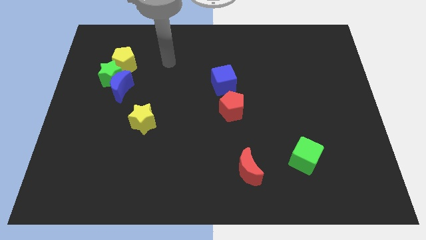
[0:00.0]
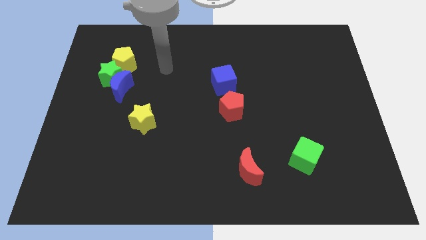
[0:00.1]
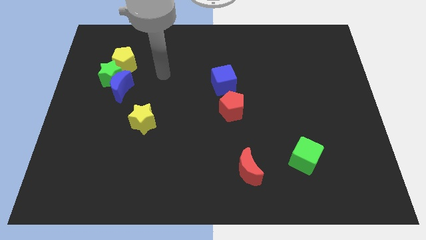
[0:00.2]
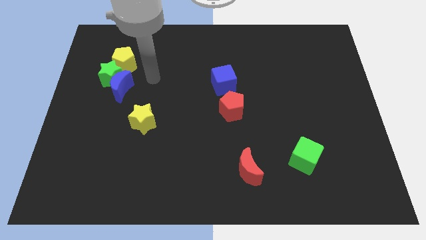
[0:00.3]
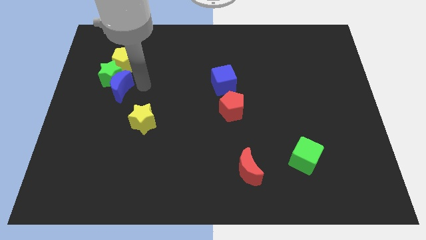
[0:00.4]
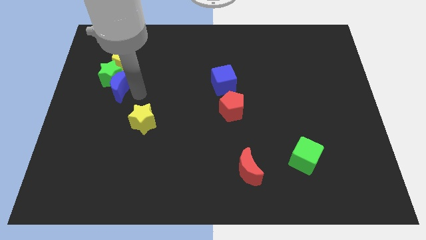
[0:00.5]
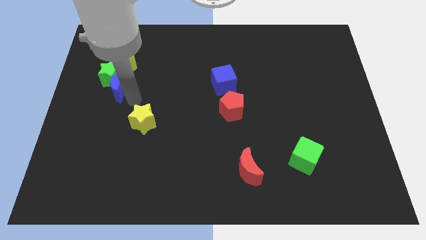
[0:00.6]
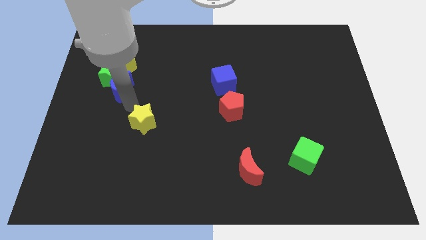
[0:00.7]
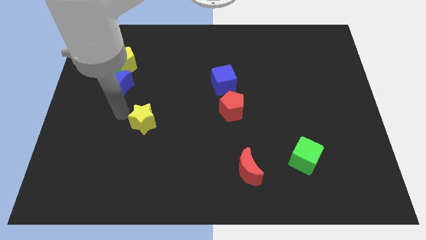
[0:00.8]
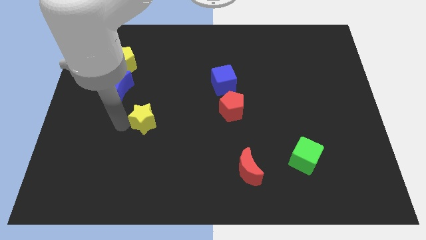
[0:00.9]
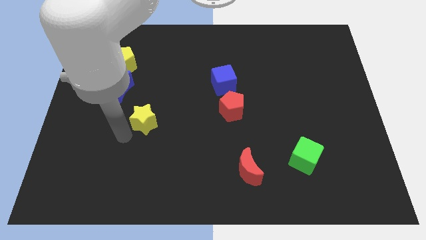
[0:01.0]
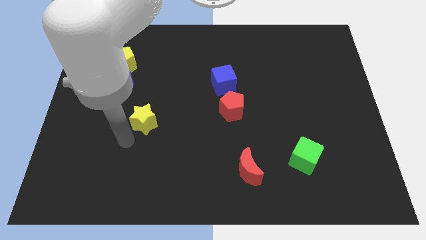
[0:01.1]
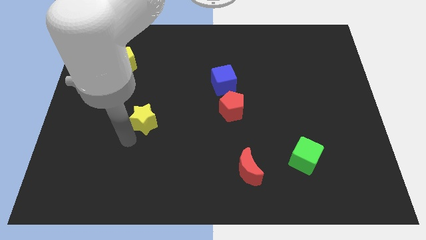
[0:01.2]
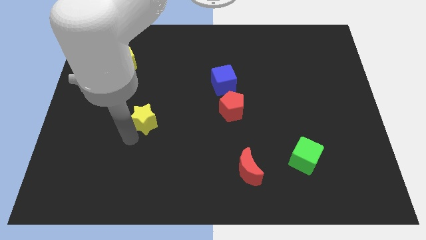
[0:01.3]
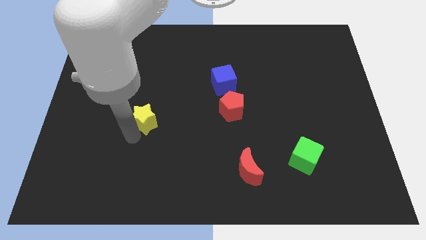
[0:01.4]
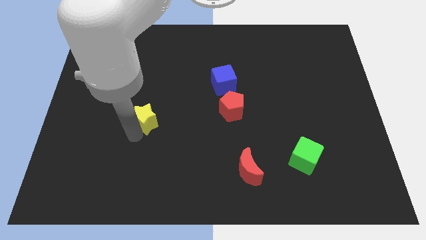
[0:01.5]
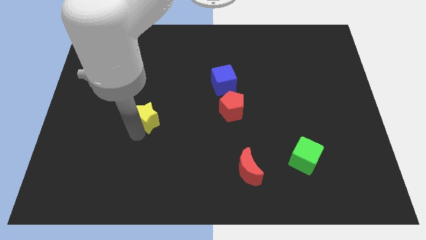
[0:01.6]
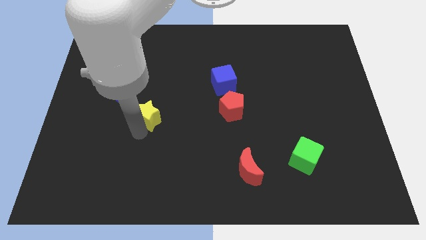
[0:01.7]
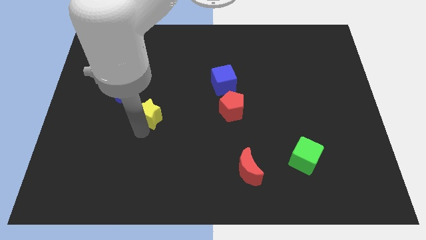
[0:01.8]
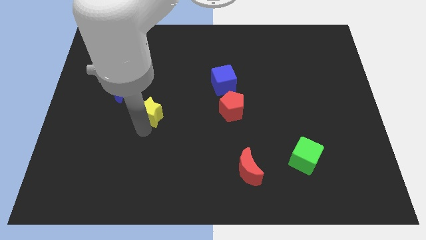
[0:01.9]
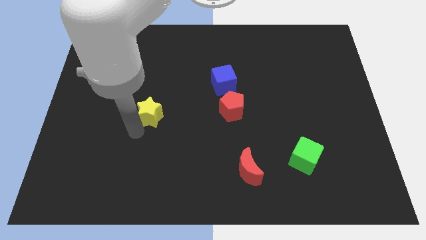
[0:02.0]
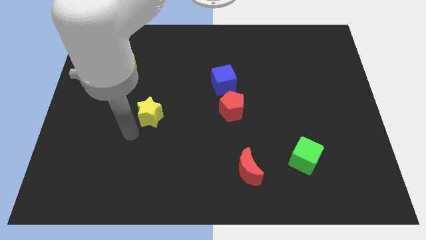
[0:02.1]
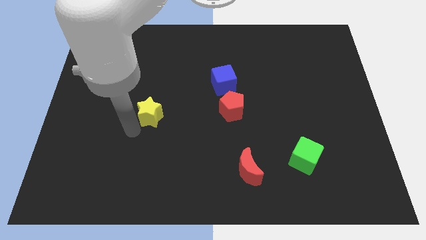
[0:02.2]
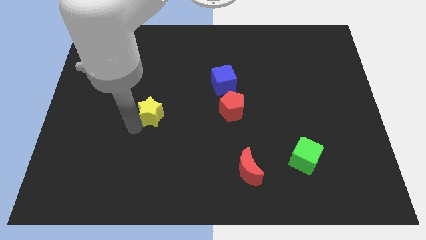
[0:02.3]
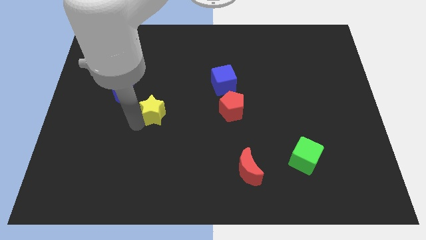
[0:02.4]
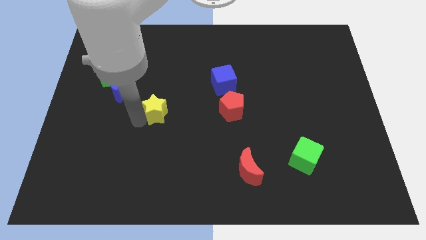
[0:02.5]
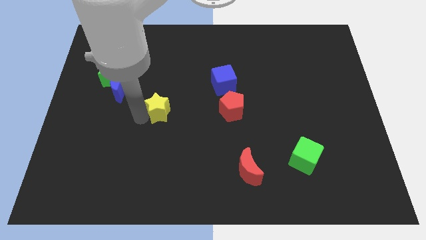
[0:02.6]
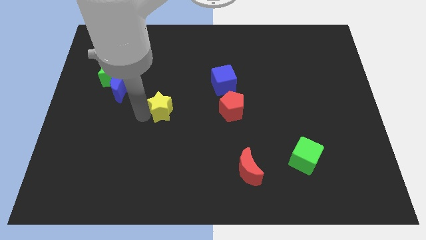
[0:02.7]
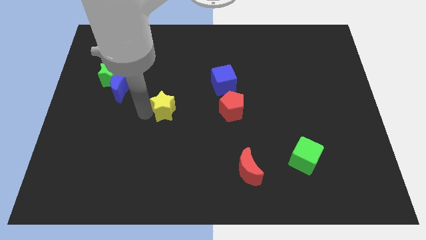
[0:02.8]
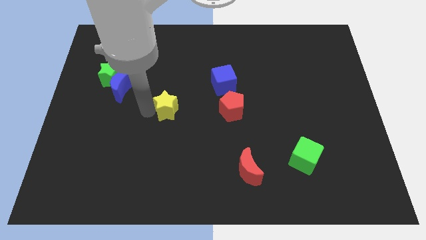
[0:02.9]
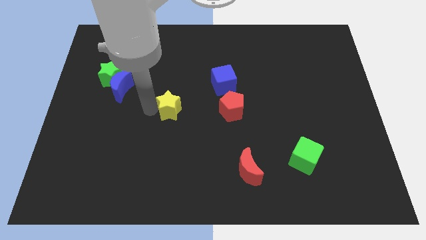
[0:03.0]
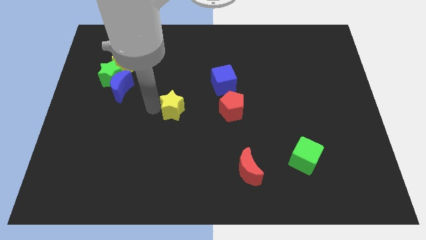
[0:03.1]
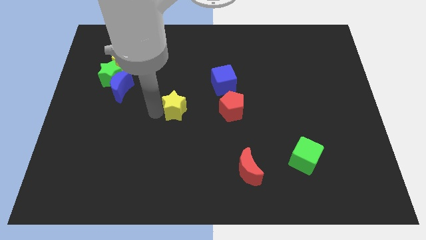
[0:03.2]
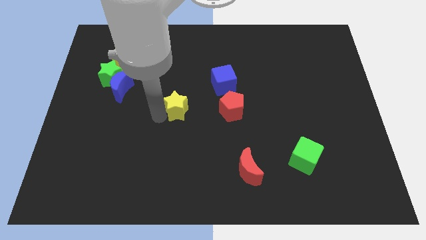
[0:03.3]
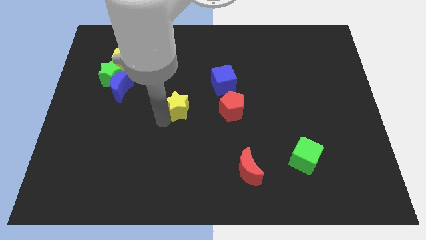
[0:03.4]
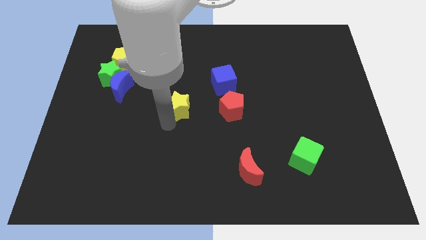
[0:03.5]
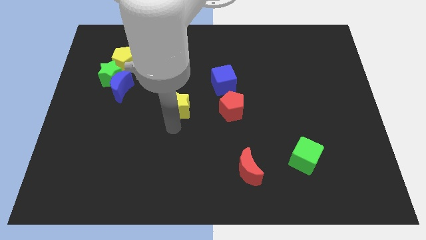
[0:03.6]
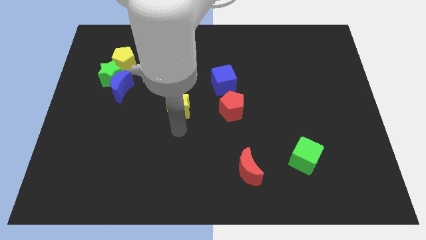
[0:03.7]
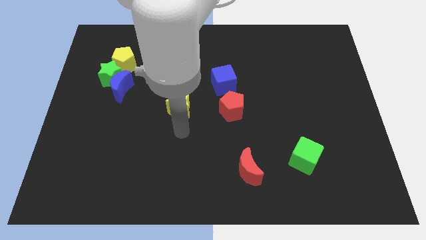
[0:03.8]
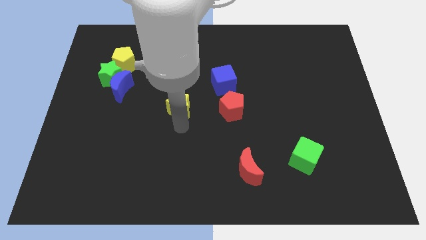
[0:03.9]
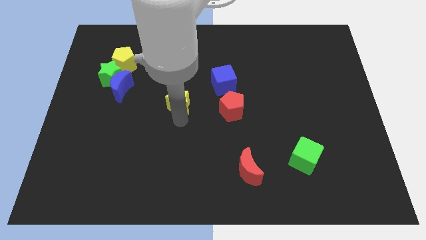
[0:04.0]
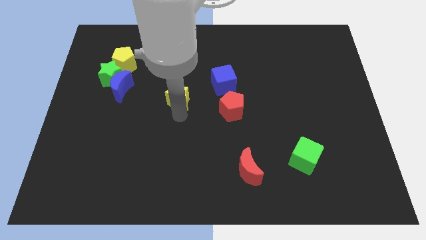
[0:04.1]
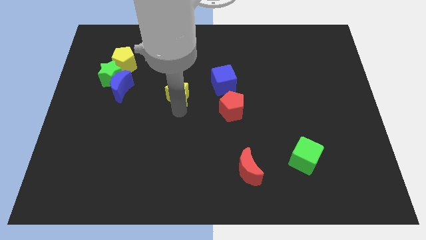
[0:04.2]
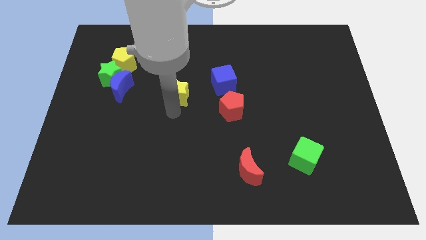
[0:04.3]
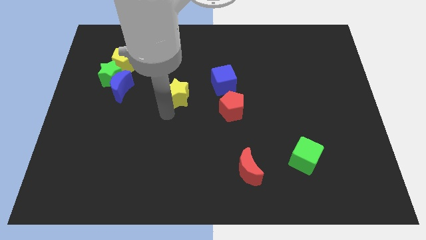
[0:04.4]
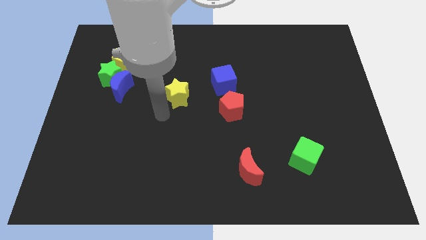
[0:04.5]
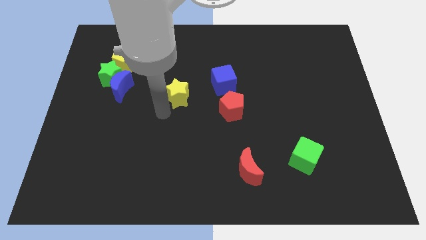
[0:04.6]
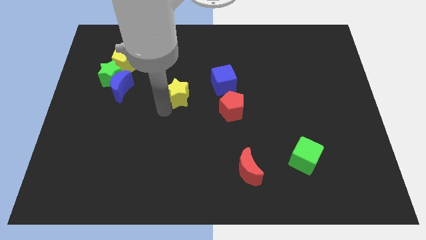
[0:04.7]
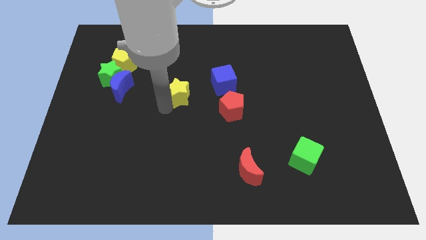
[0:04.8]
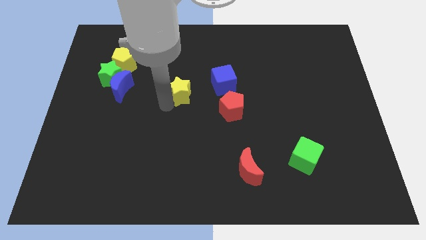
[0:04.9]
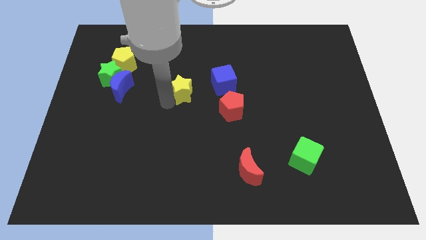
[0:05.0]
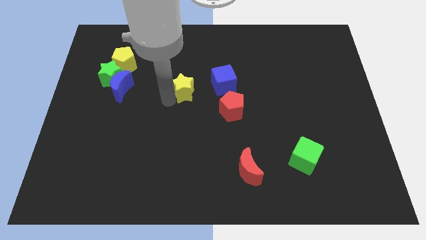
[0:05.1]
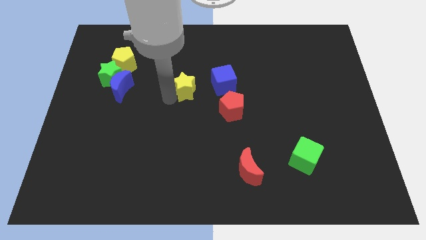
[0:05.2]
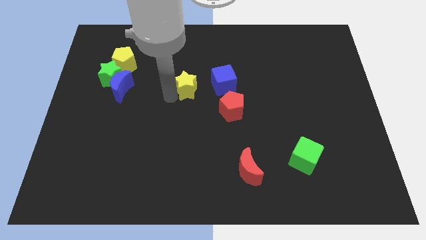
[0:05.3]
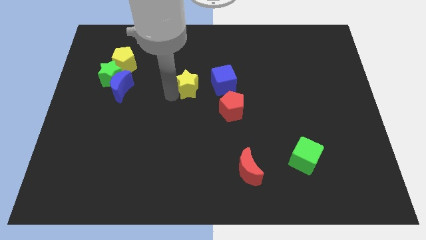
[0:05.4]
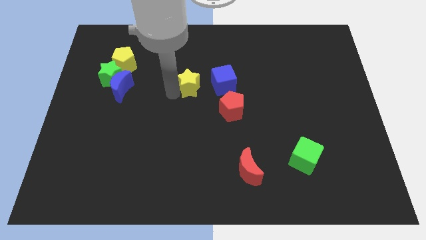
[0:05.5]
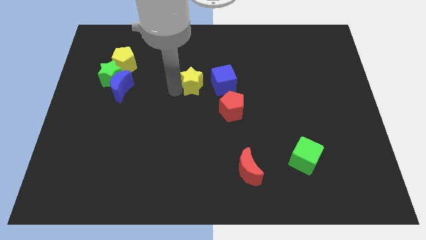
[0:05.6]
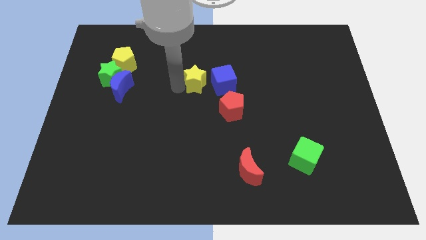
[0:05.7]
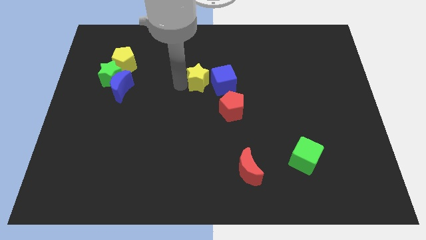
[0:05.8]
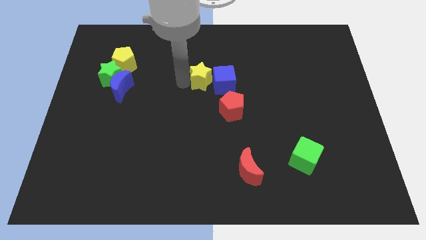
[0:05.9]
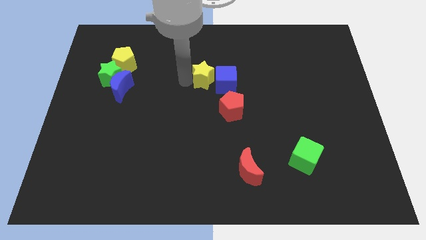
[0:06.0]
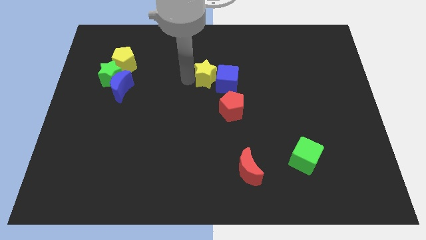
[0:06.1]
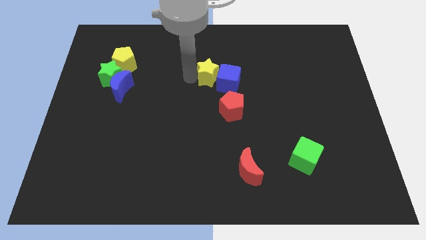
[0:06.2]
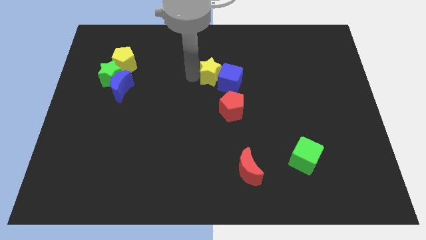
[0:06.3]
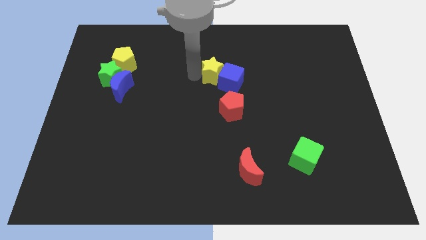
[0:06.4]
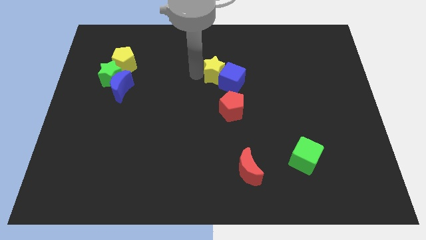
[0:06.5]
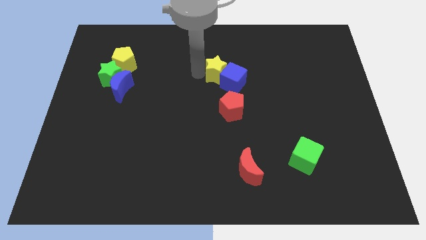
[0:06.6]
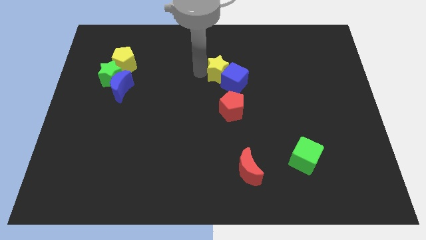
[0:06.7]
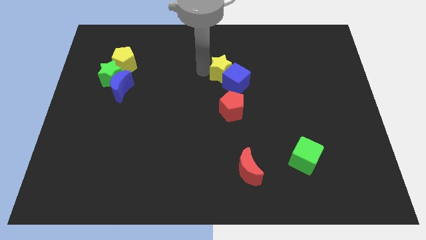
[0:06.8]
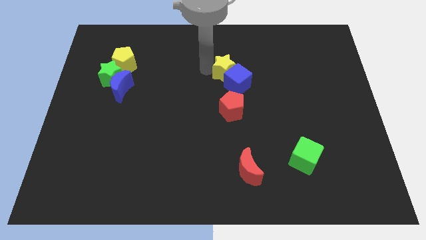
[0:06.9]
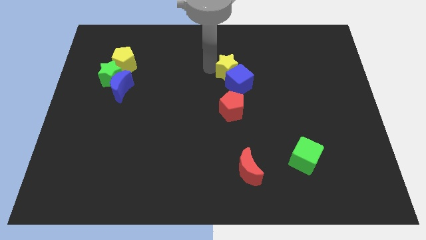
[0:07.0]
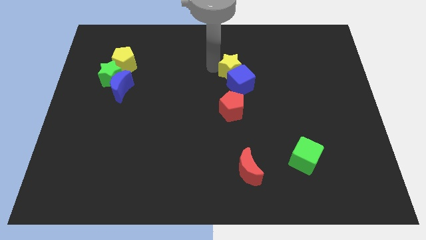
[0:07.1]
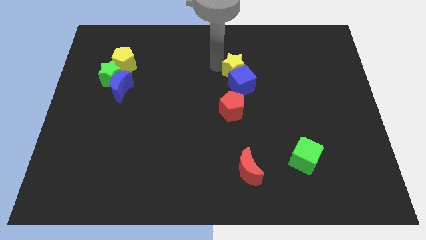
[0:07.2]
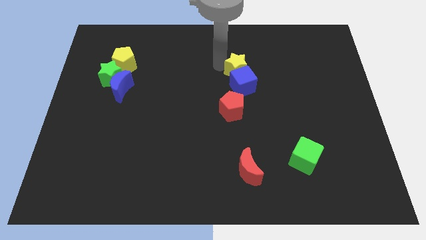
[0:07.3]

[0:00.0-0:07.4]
slide the yellow star diagonally up and to the right of the blue cube
